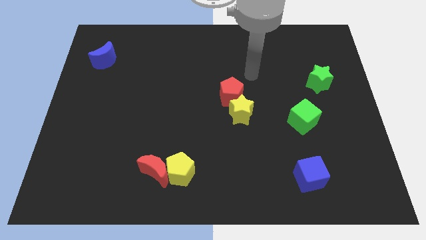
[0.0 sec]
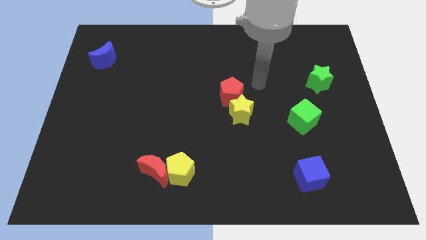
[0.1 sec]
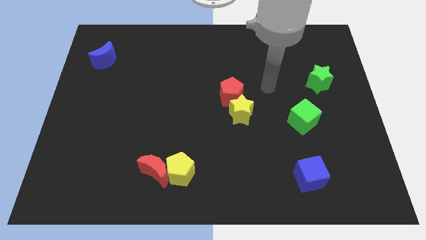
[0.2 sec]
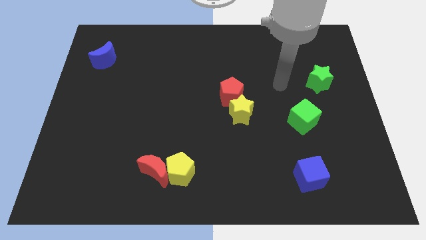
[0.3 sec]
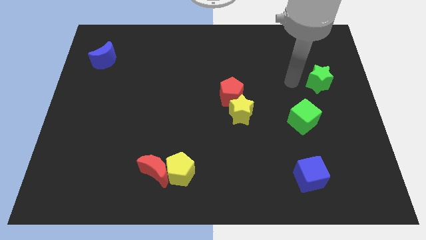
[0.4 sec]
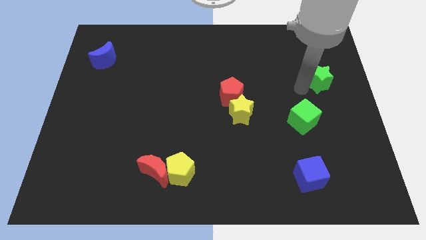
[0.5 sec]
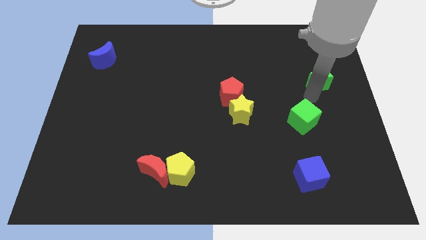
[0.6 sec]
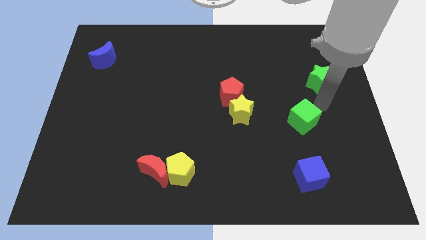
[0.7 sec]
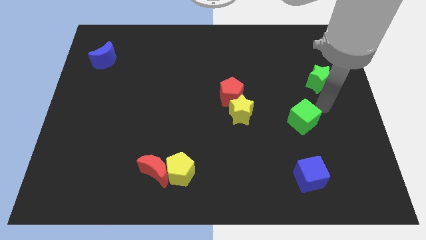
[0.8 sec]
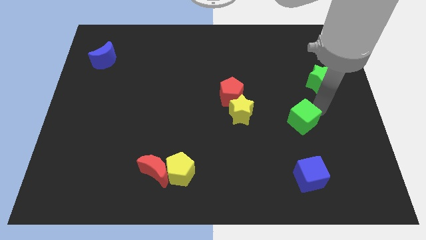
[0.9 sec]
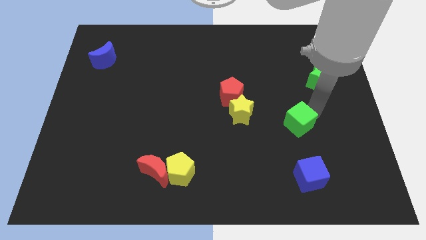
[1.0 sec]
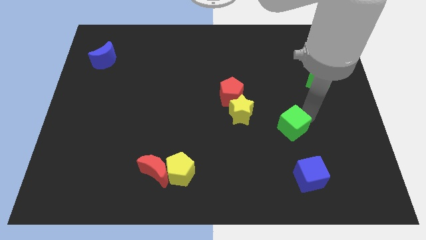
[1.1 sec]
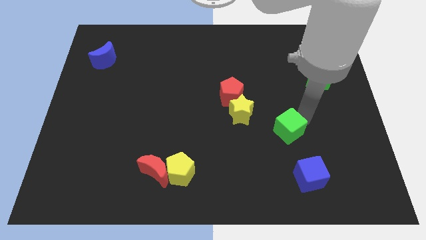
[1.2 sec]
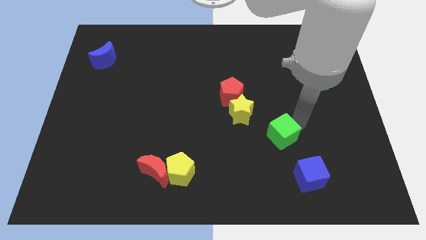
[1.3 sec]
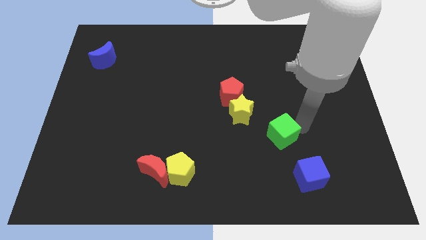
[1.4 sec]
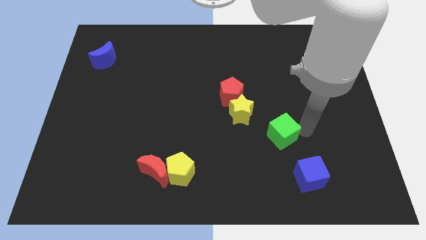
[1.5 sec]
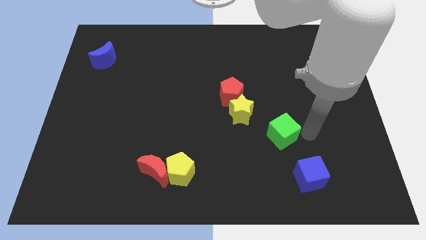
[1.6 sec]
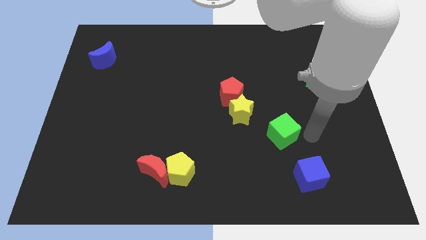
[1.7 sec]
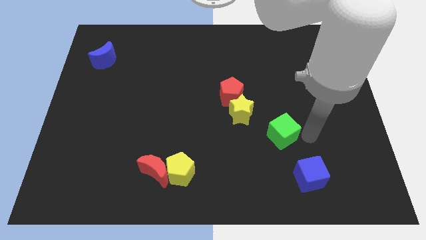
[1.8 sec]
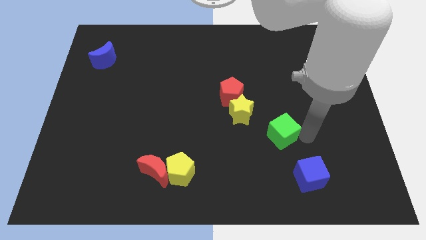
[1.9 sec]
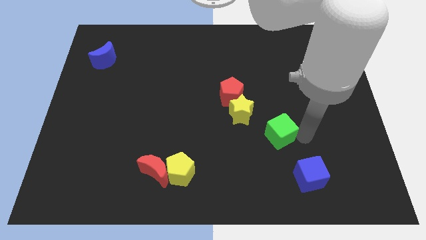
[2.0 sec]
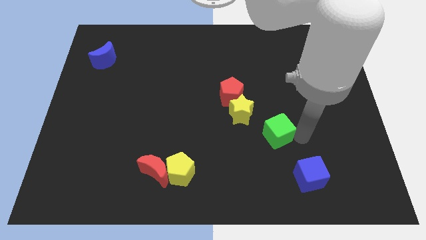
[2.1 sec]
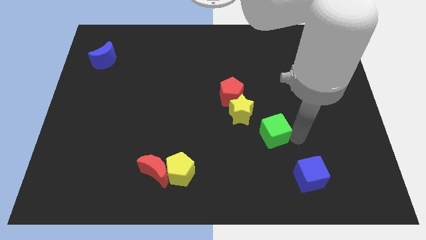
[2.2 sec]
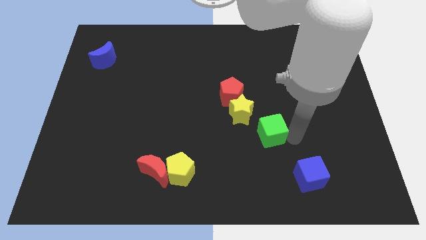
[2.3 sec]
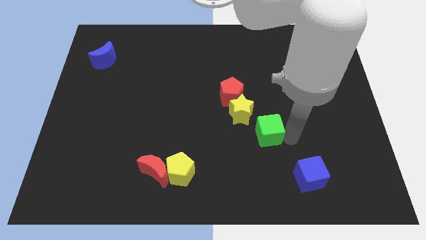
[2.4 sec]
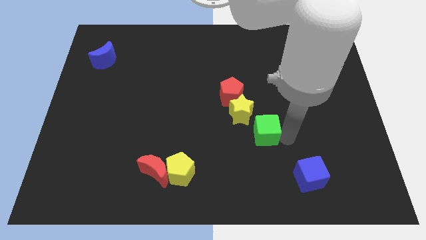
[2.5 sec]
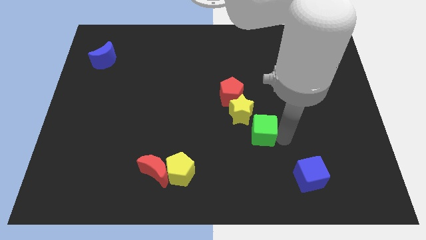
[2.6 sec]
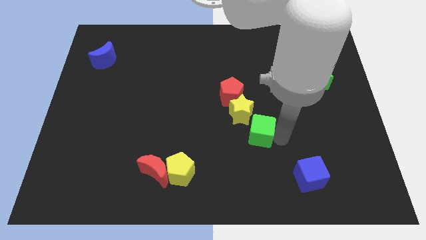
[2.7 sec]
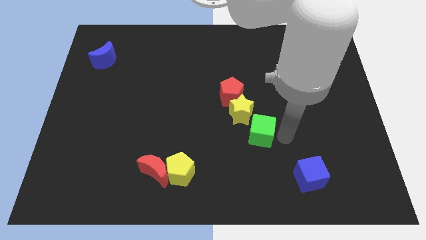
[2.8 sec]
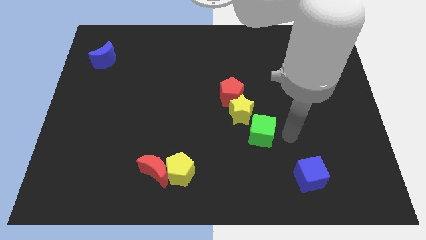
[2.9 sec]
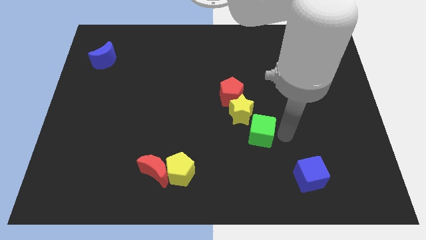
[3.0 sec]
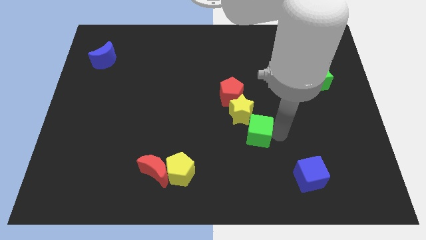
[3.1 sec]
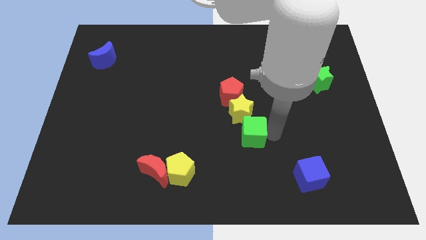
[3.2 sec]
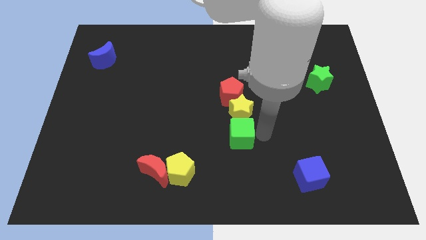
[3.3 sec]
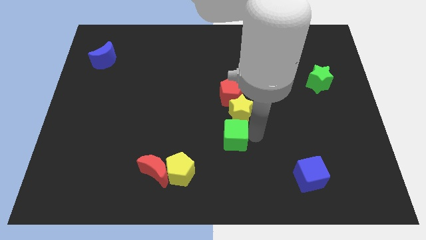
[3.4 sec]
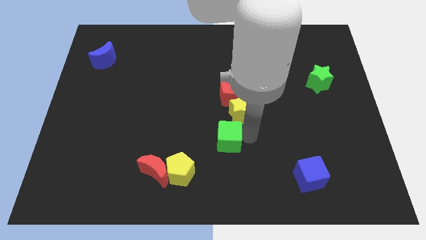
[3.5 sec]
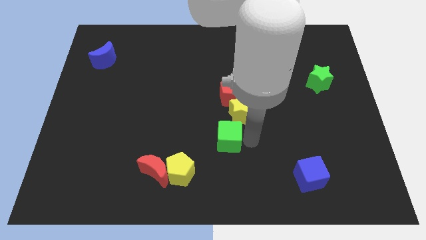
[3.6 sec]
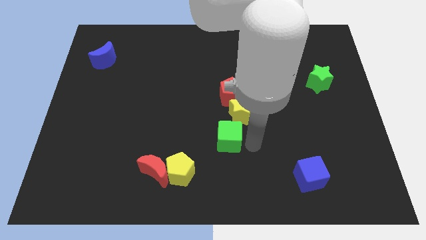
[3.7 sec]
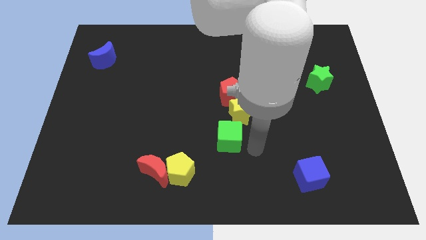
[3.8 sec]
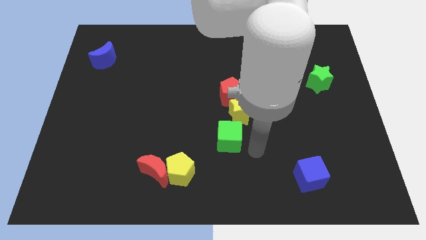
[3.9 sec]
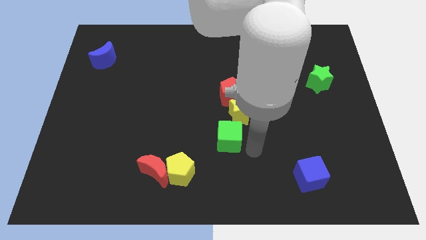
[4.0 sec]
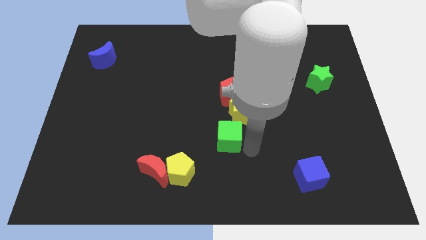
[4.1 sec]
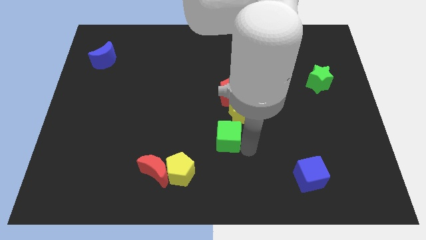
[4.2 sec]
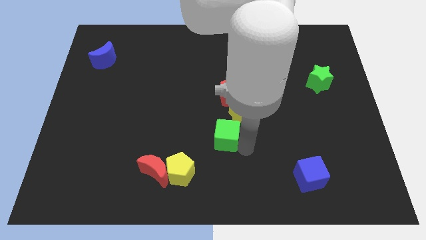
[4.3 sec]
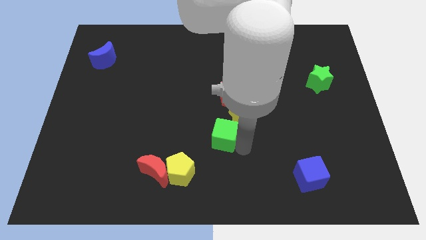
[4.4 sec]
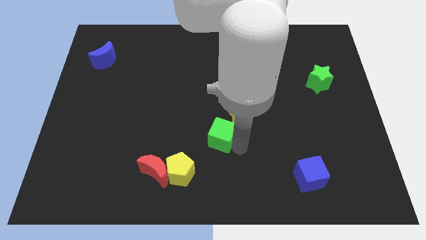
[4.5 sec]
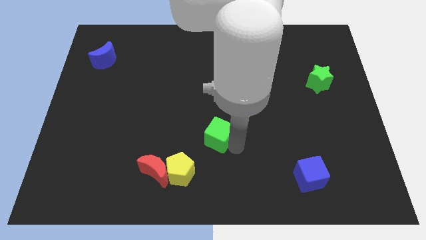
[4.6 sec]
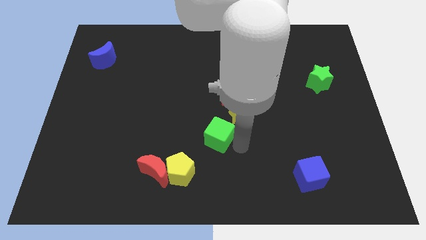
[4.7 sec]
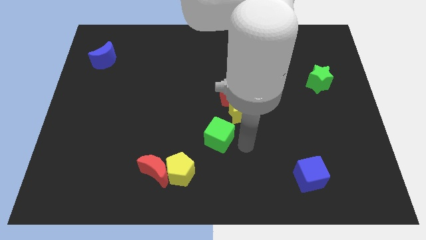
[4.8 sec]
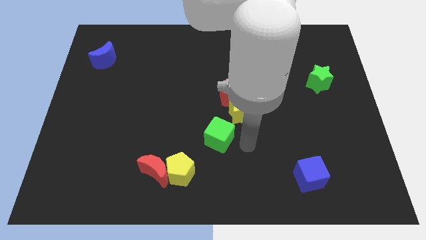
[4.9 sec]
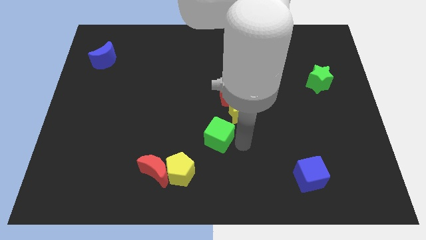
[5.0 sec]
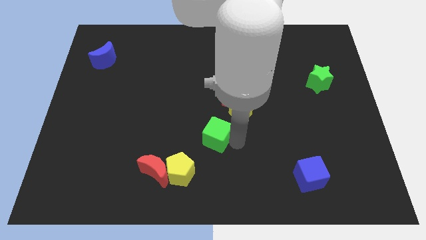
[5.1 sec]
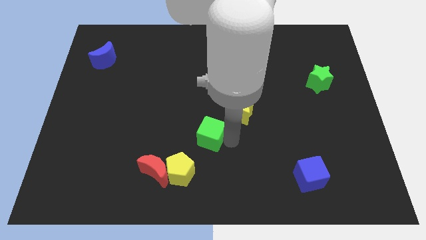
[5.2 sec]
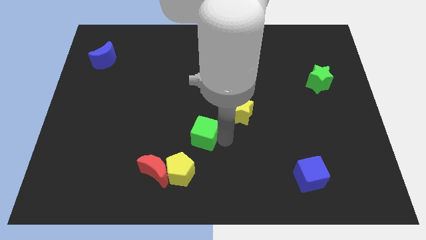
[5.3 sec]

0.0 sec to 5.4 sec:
put the green cube above the yellow pentagon

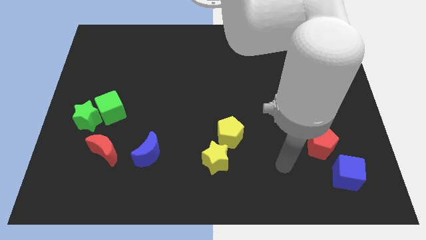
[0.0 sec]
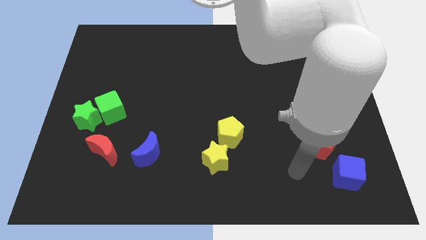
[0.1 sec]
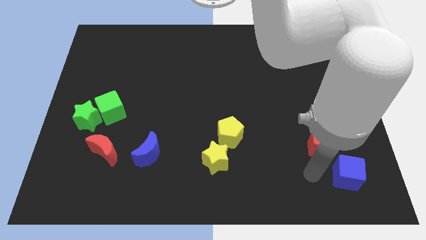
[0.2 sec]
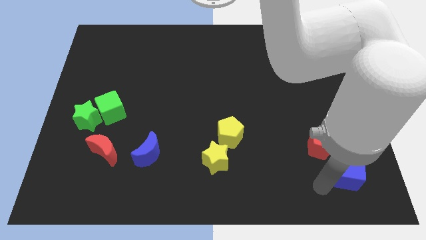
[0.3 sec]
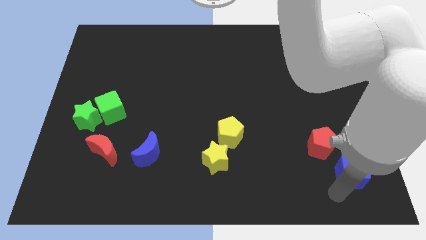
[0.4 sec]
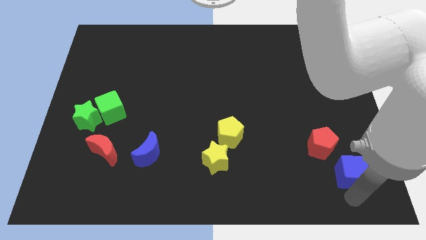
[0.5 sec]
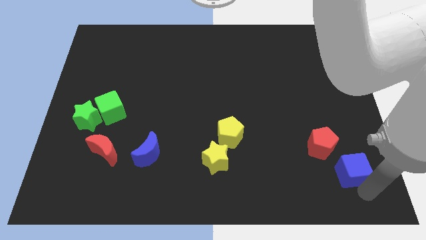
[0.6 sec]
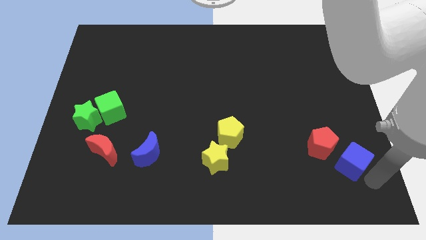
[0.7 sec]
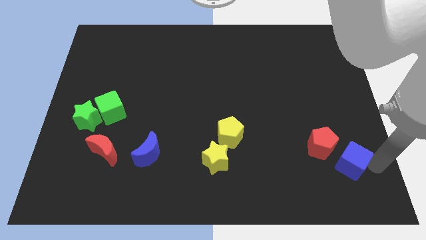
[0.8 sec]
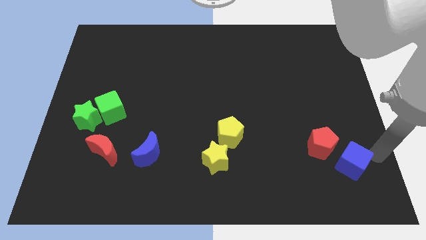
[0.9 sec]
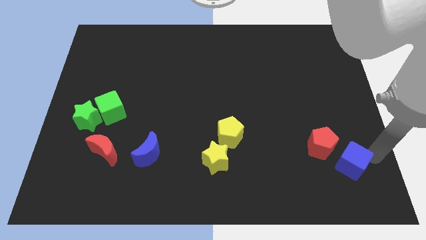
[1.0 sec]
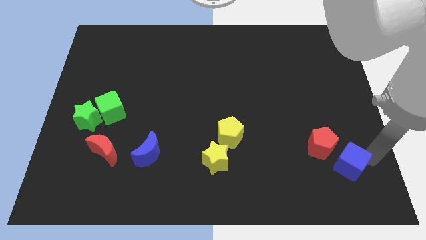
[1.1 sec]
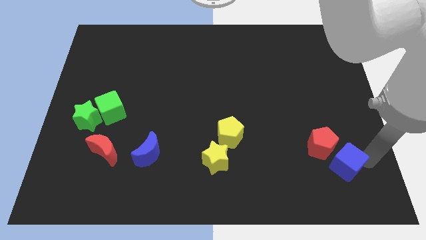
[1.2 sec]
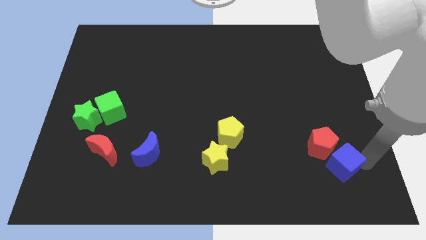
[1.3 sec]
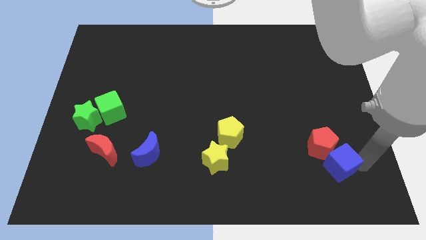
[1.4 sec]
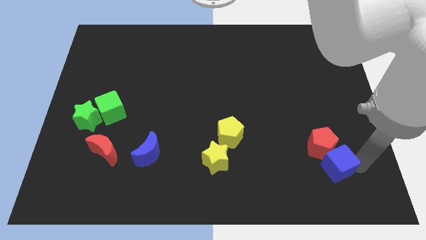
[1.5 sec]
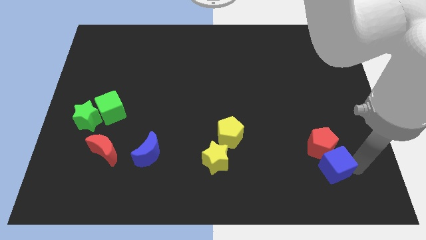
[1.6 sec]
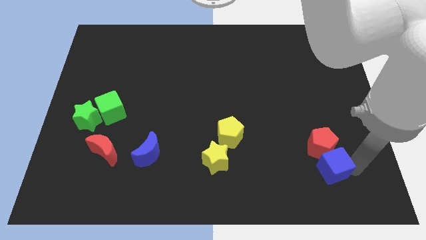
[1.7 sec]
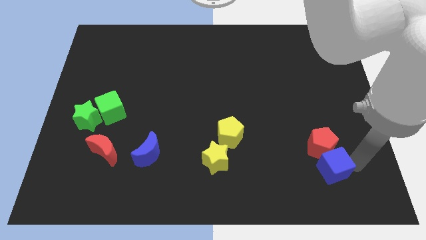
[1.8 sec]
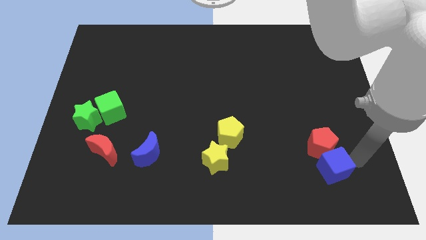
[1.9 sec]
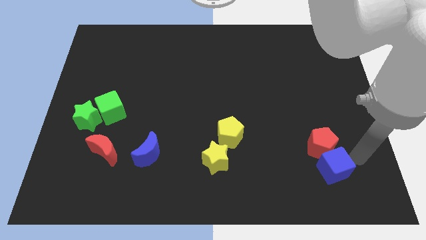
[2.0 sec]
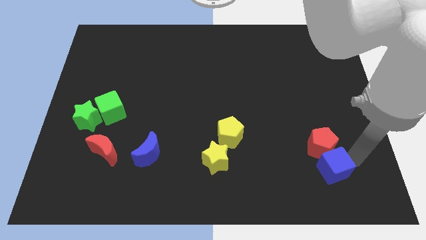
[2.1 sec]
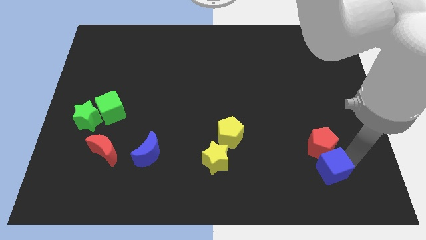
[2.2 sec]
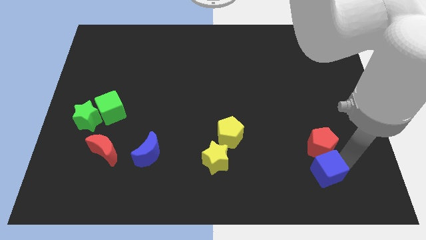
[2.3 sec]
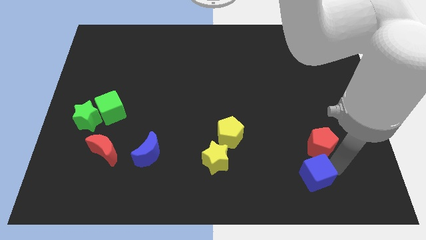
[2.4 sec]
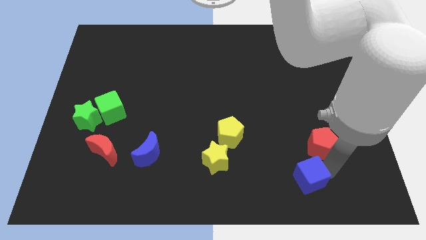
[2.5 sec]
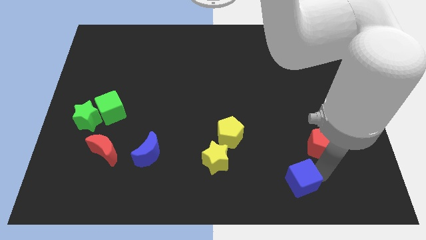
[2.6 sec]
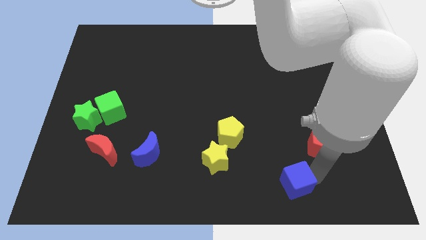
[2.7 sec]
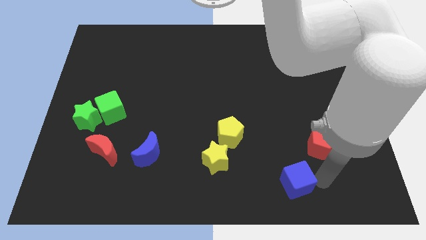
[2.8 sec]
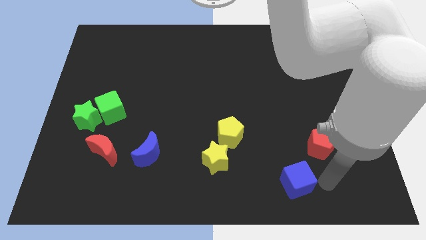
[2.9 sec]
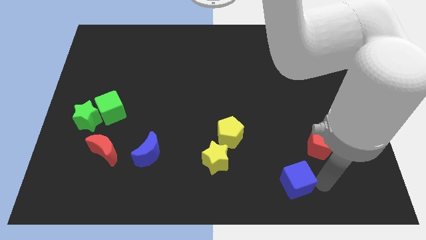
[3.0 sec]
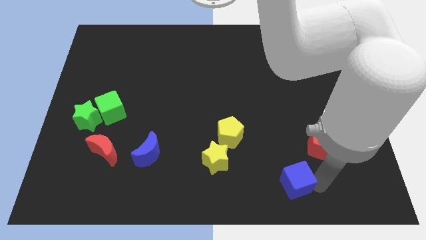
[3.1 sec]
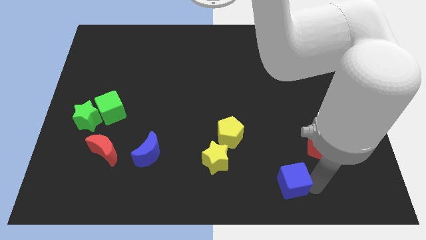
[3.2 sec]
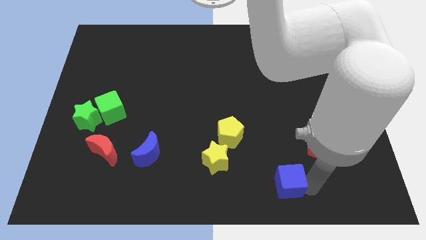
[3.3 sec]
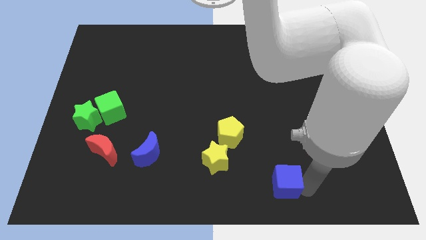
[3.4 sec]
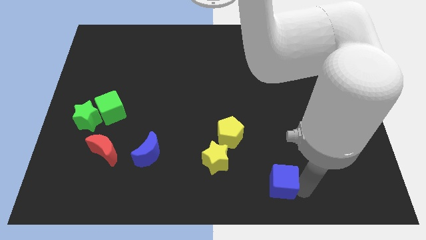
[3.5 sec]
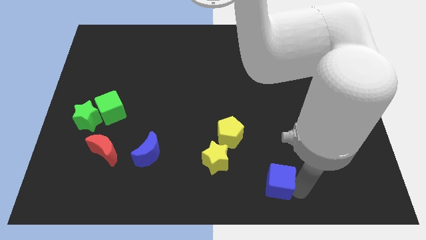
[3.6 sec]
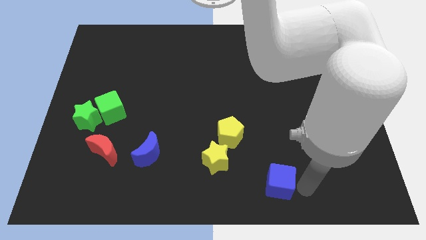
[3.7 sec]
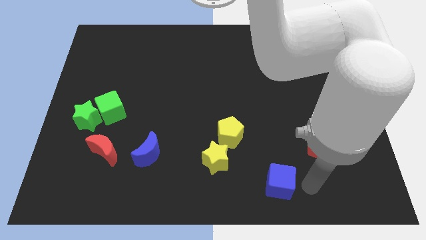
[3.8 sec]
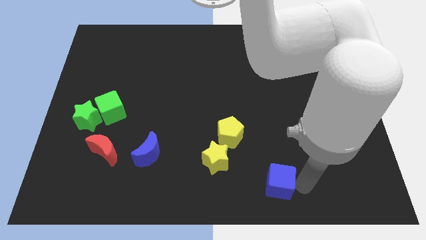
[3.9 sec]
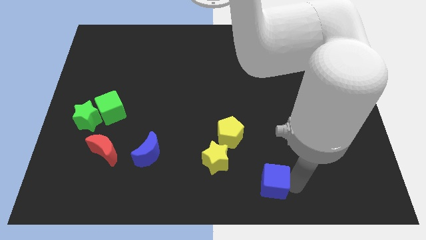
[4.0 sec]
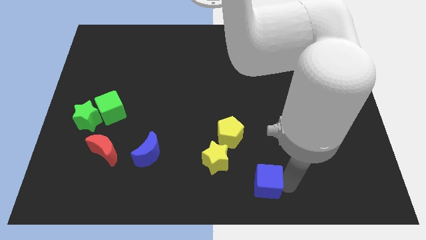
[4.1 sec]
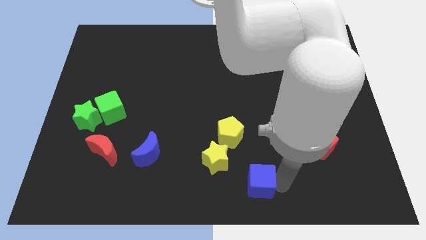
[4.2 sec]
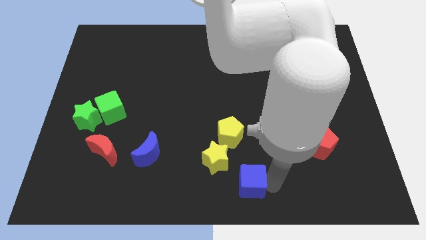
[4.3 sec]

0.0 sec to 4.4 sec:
push the blue cube below the yellow pentagon
